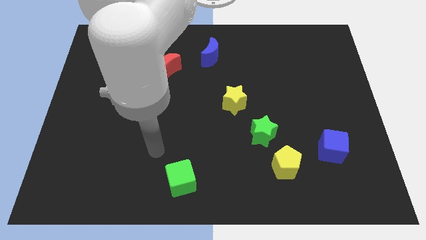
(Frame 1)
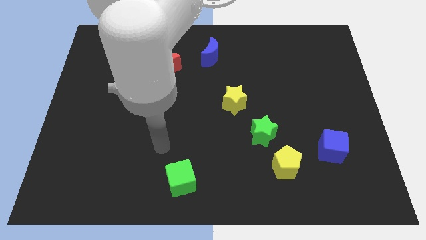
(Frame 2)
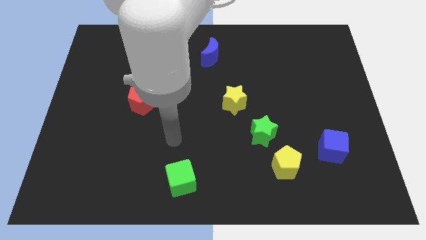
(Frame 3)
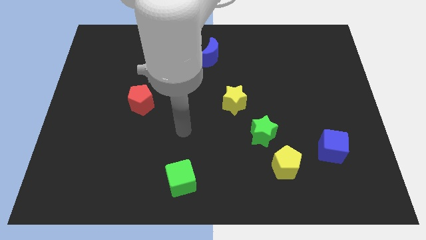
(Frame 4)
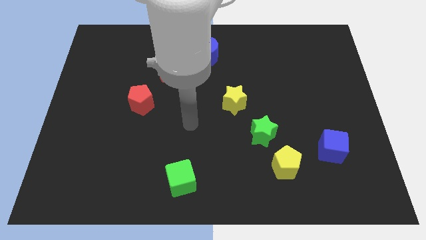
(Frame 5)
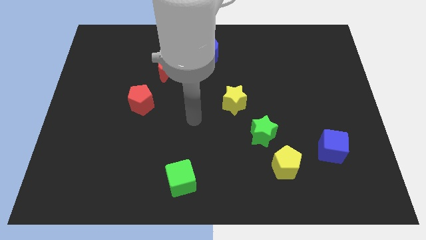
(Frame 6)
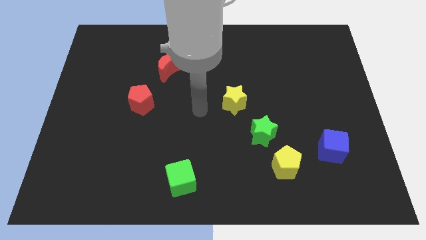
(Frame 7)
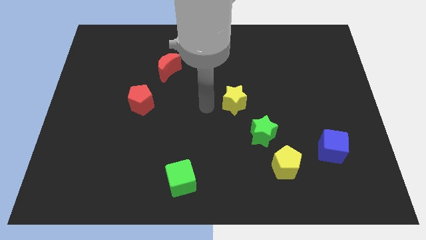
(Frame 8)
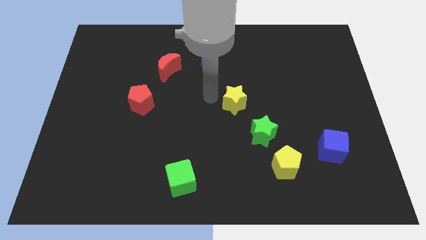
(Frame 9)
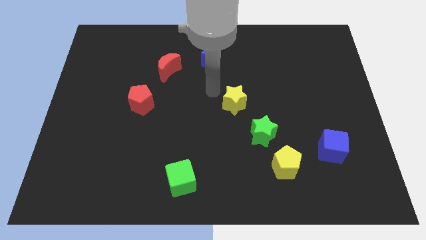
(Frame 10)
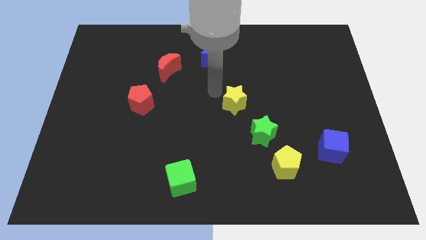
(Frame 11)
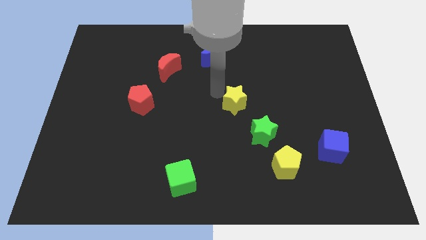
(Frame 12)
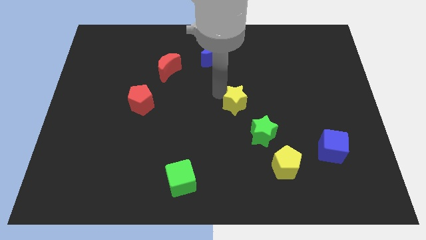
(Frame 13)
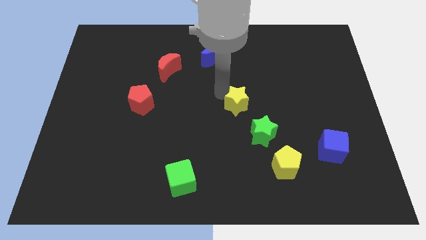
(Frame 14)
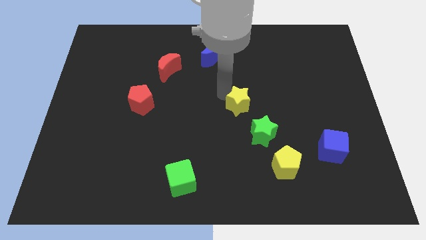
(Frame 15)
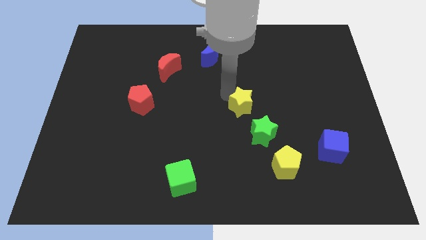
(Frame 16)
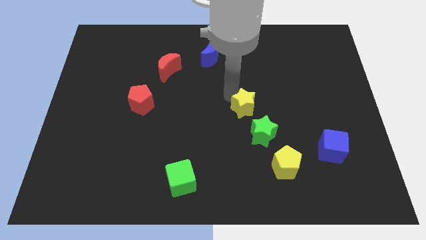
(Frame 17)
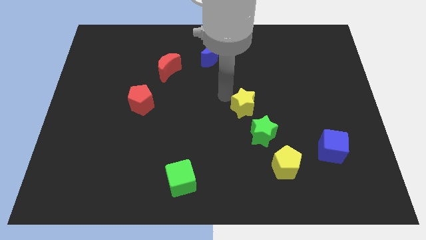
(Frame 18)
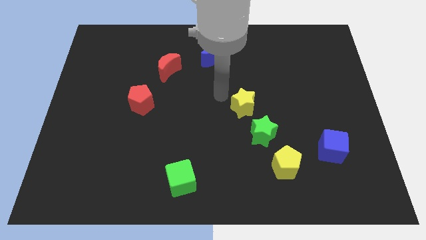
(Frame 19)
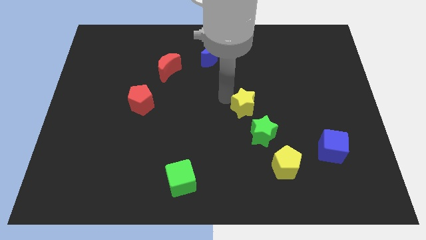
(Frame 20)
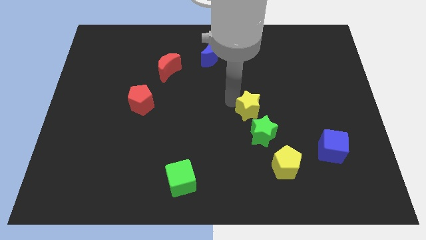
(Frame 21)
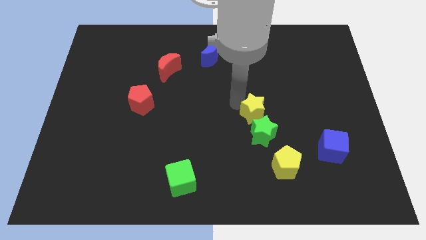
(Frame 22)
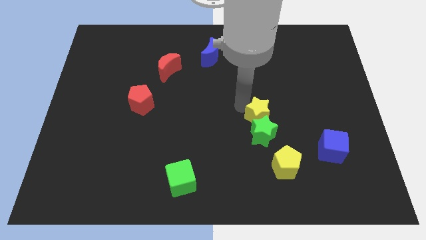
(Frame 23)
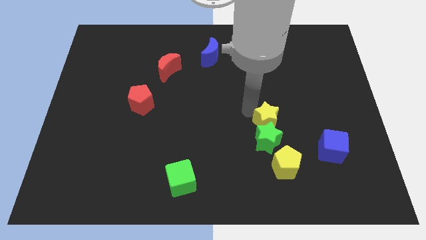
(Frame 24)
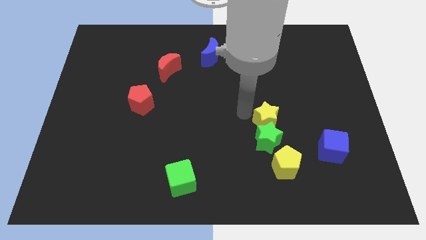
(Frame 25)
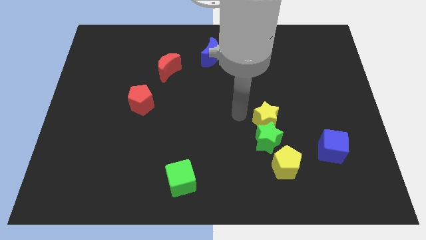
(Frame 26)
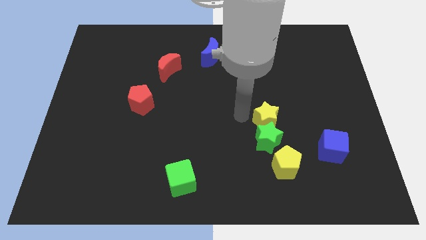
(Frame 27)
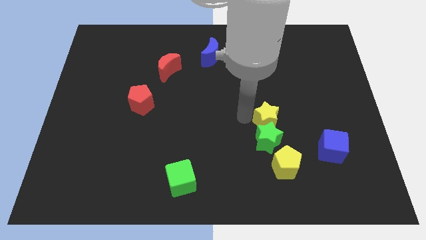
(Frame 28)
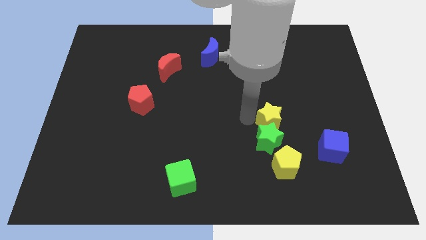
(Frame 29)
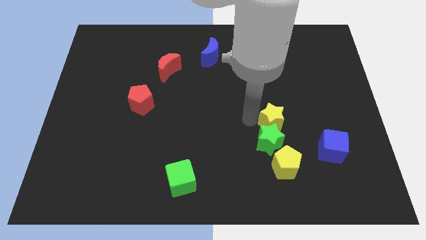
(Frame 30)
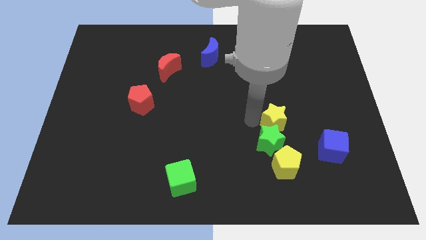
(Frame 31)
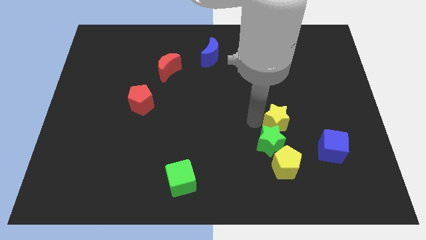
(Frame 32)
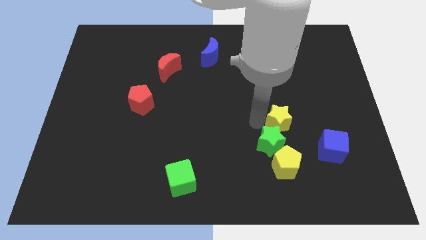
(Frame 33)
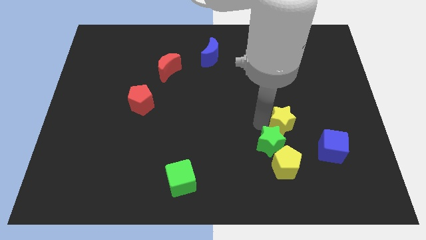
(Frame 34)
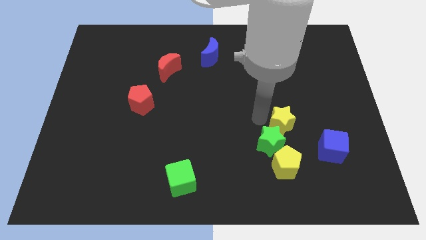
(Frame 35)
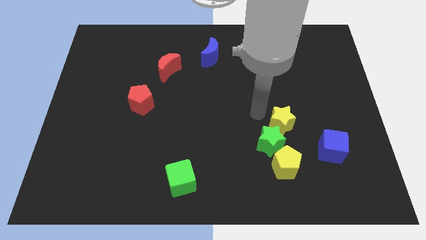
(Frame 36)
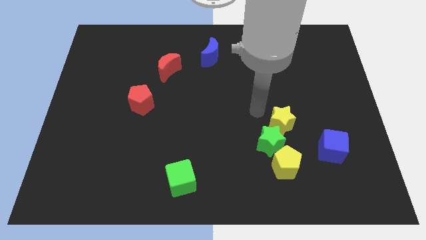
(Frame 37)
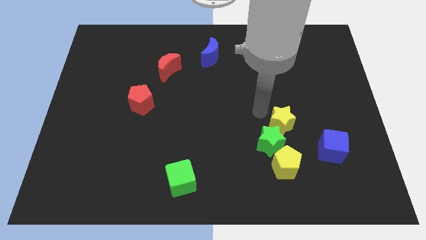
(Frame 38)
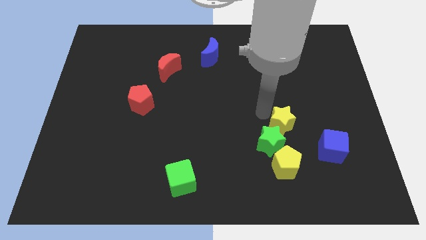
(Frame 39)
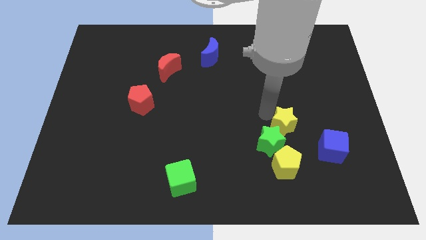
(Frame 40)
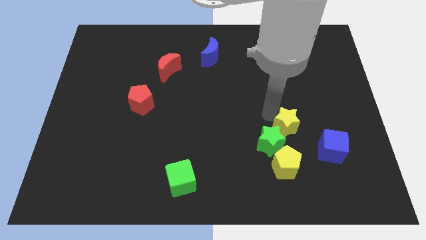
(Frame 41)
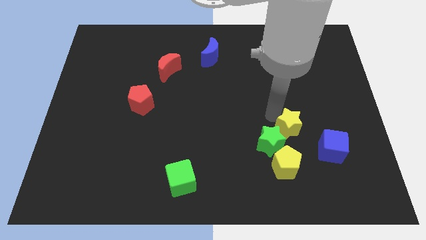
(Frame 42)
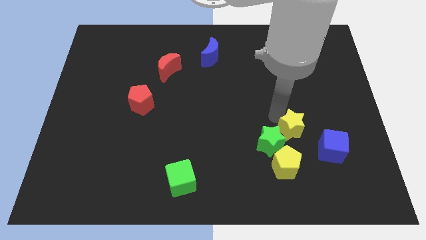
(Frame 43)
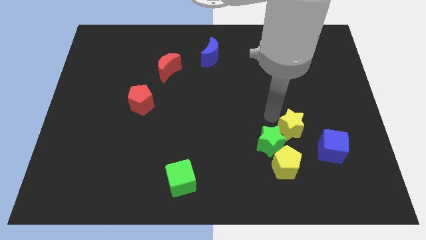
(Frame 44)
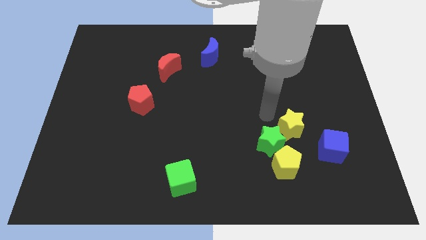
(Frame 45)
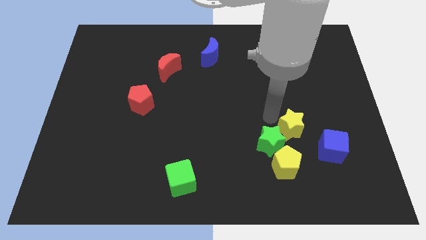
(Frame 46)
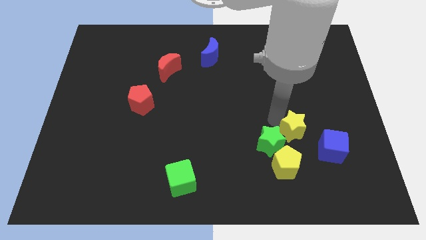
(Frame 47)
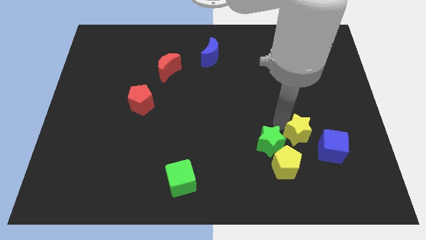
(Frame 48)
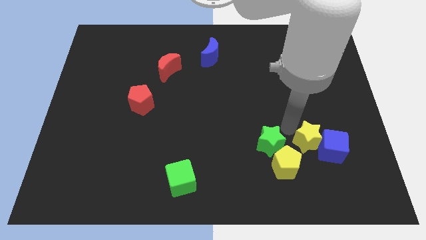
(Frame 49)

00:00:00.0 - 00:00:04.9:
move the yellow star close to the blue cube

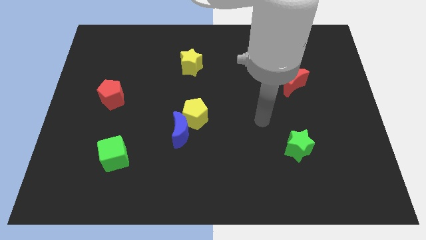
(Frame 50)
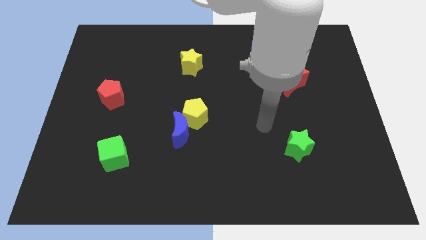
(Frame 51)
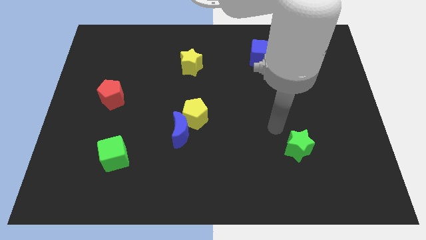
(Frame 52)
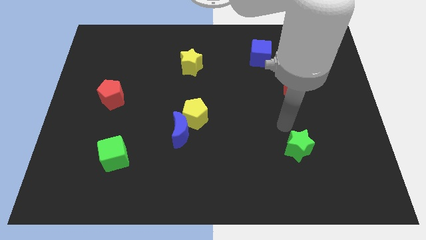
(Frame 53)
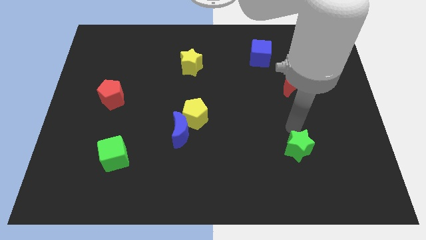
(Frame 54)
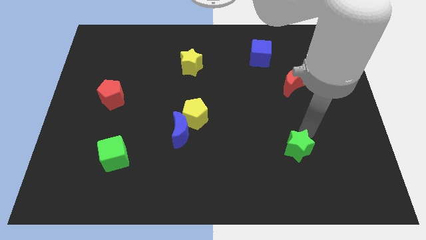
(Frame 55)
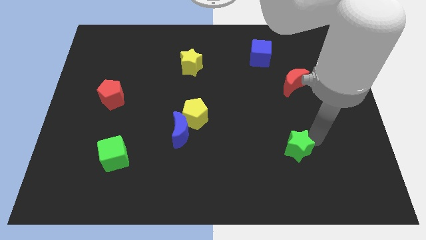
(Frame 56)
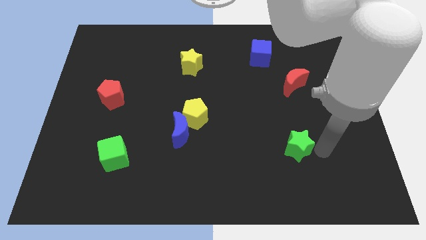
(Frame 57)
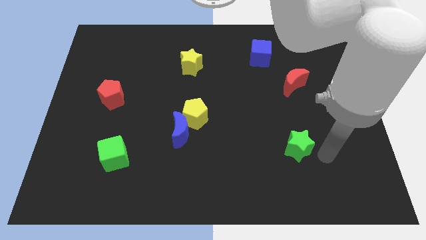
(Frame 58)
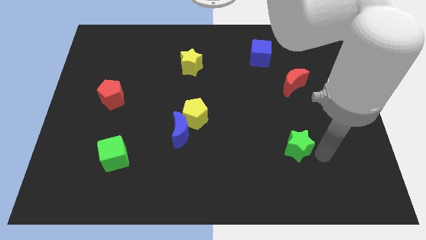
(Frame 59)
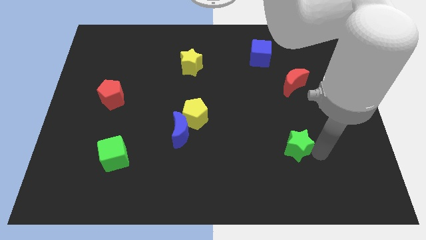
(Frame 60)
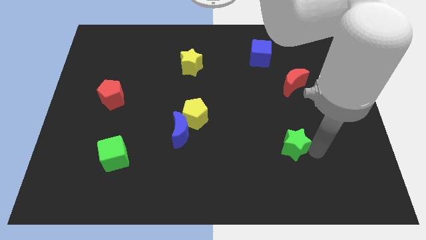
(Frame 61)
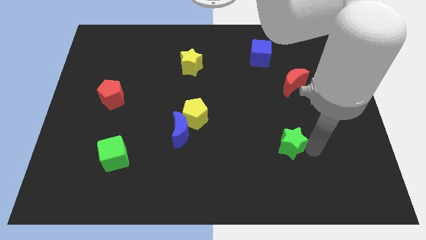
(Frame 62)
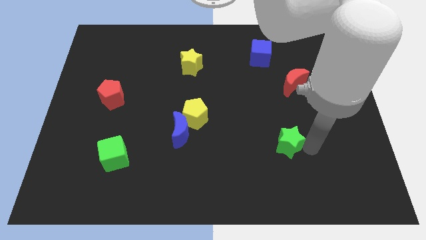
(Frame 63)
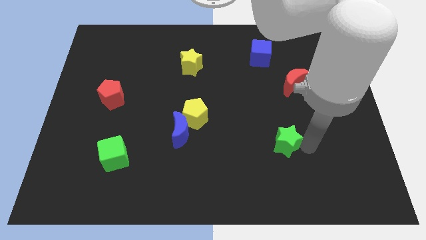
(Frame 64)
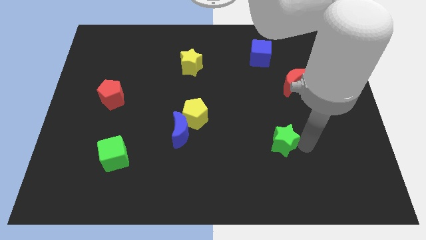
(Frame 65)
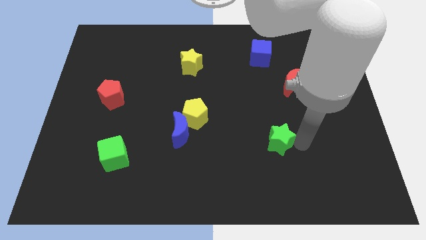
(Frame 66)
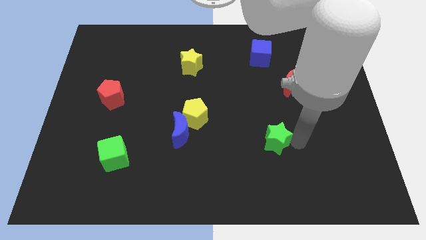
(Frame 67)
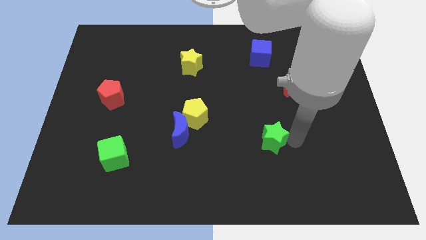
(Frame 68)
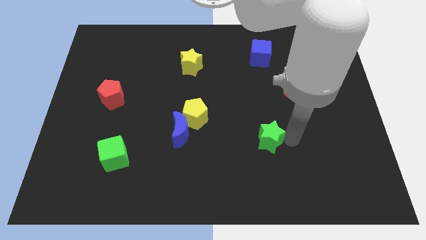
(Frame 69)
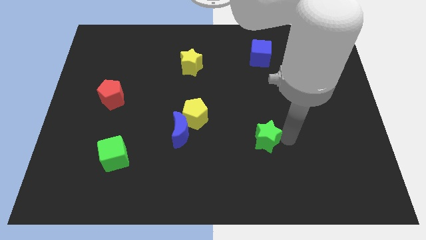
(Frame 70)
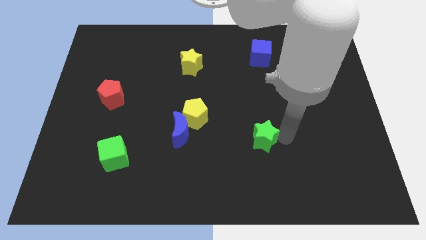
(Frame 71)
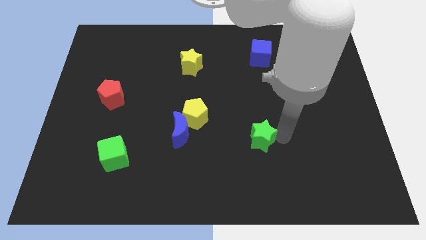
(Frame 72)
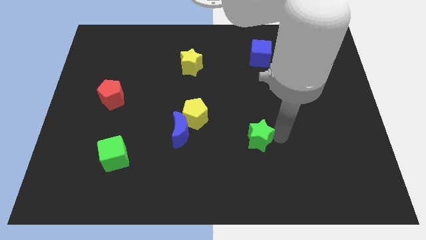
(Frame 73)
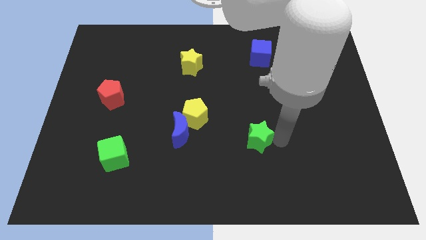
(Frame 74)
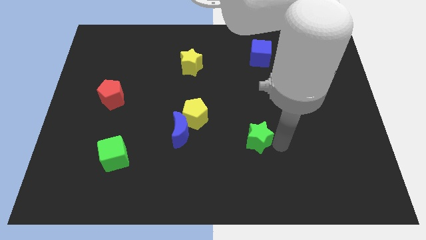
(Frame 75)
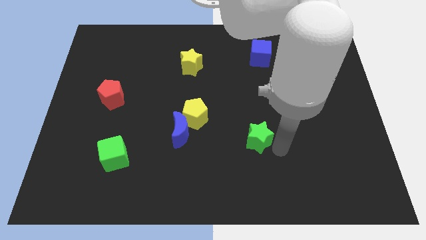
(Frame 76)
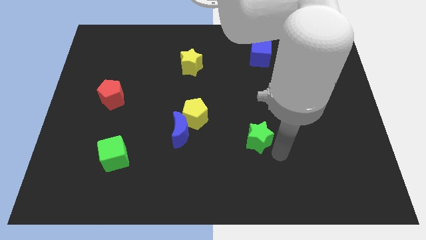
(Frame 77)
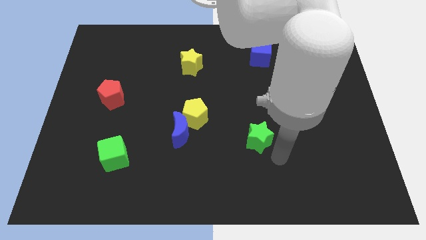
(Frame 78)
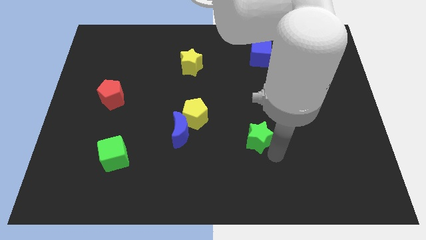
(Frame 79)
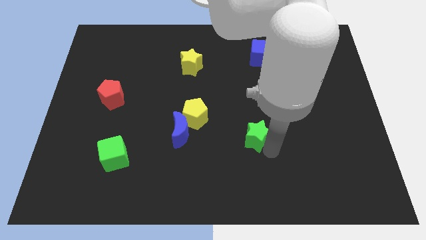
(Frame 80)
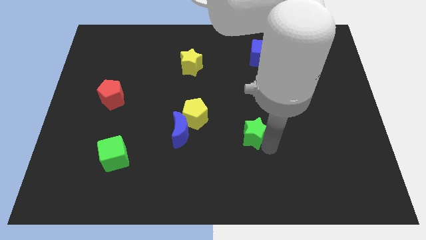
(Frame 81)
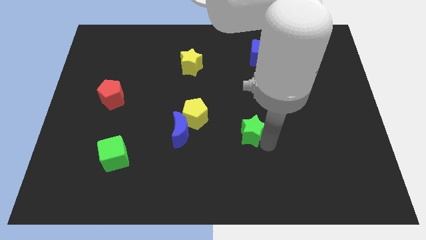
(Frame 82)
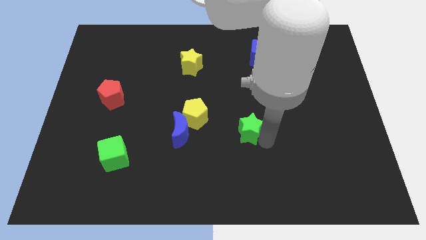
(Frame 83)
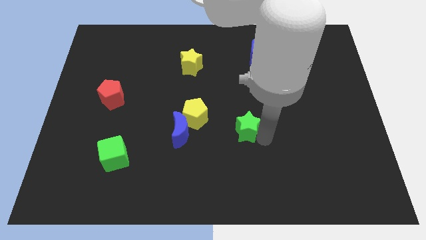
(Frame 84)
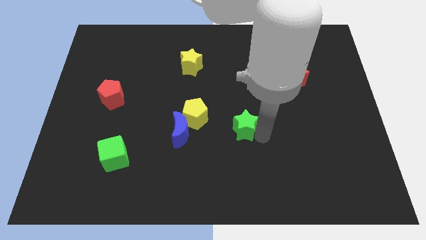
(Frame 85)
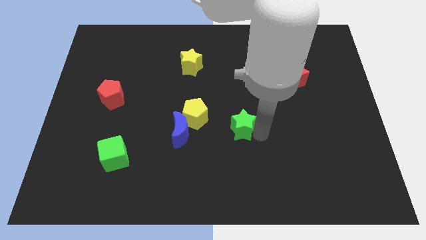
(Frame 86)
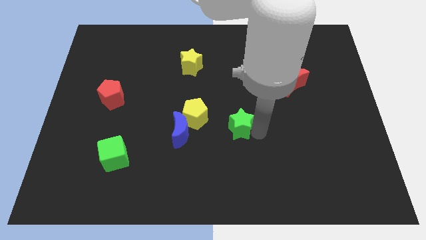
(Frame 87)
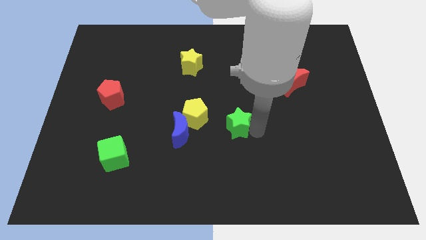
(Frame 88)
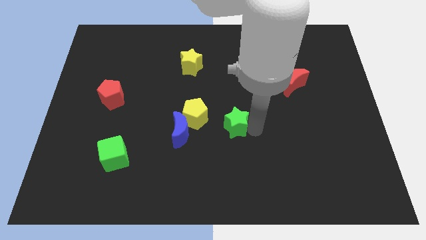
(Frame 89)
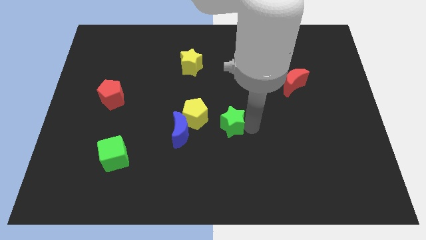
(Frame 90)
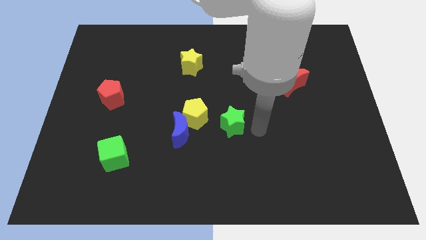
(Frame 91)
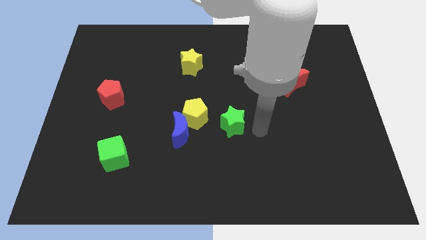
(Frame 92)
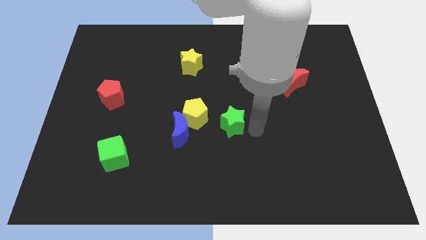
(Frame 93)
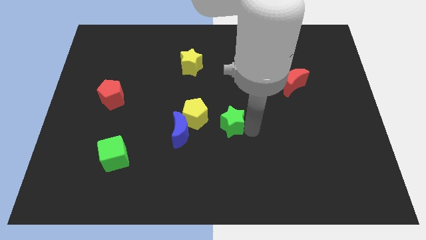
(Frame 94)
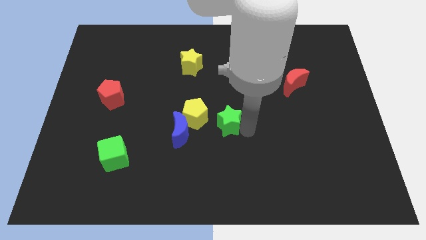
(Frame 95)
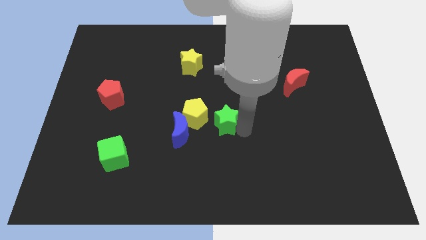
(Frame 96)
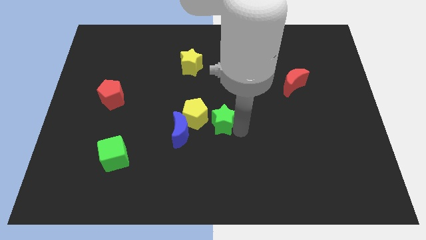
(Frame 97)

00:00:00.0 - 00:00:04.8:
put the green star next to the yellow pentagon
